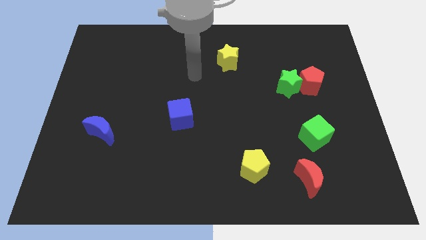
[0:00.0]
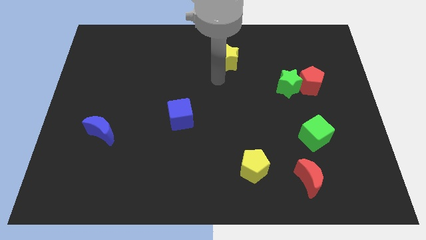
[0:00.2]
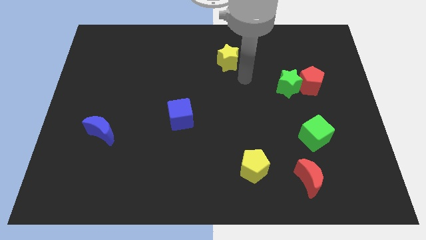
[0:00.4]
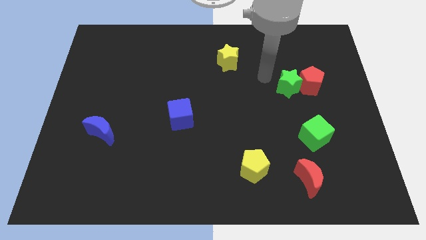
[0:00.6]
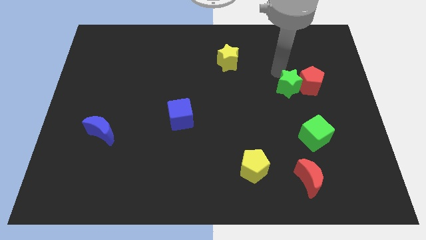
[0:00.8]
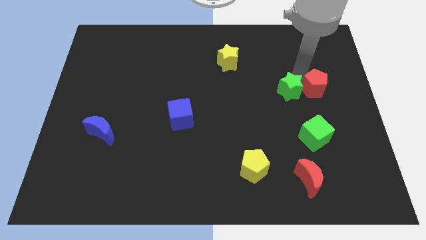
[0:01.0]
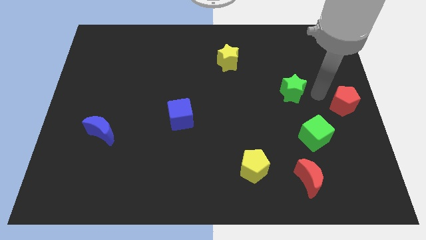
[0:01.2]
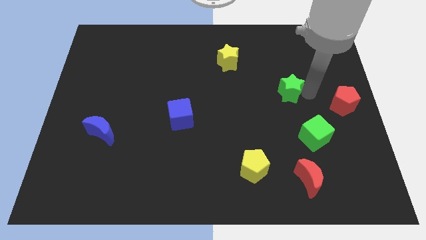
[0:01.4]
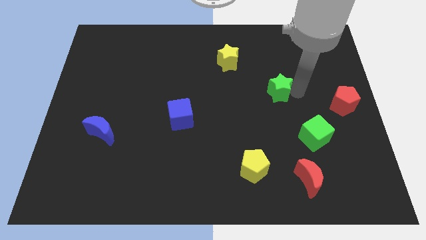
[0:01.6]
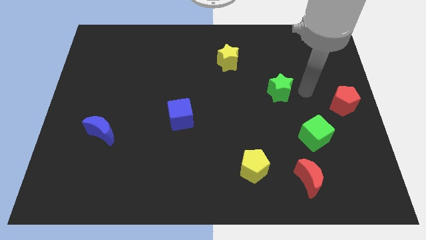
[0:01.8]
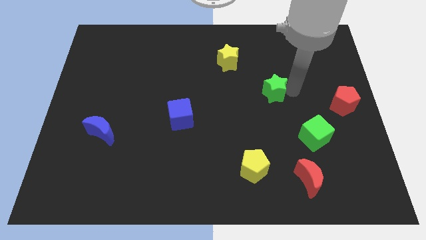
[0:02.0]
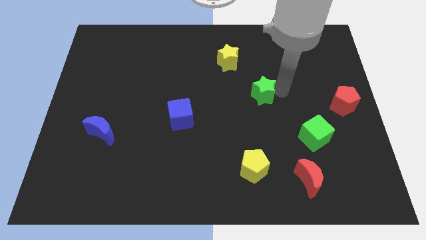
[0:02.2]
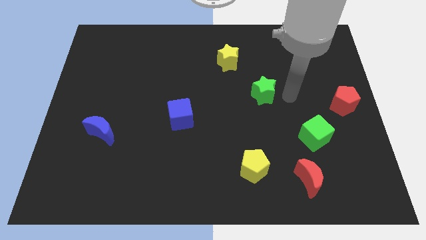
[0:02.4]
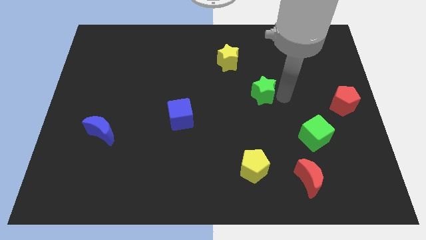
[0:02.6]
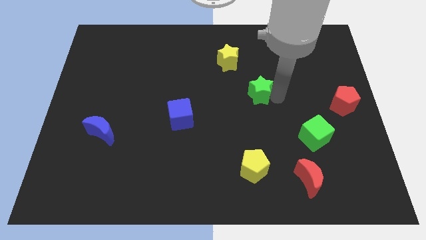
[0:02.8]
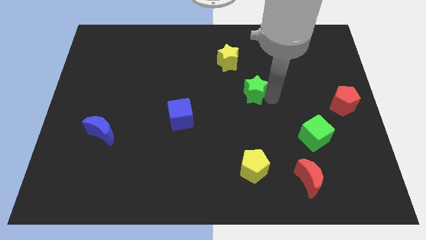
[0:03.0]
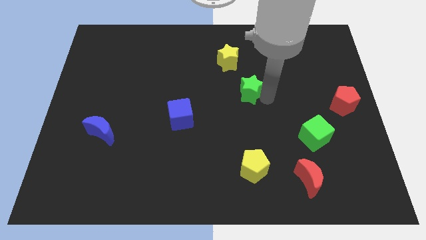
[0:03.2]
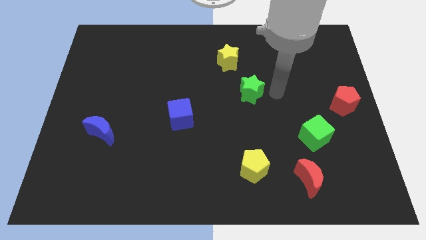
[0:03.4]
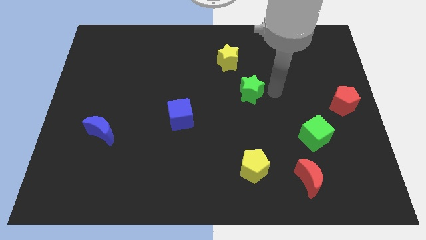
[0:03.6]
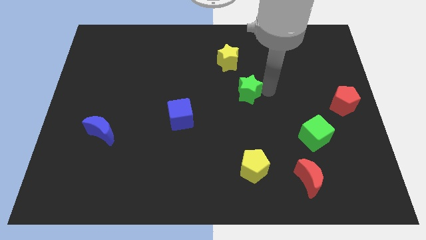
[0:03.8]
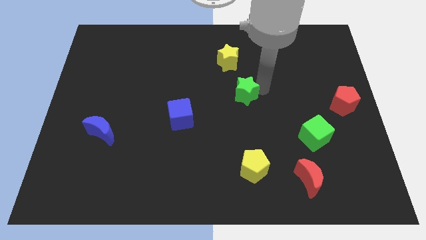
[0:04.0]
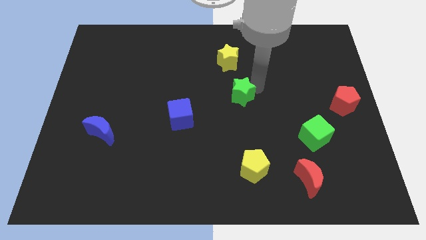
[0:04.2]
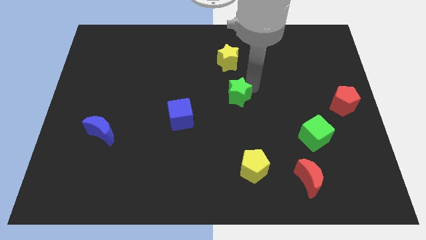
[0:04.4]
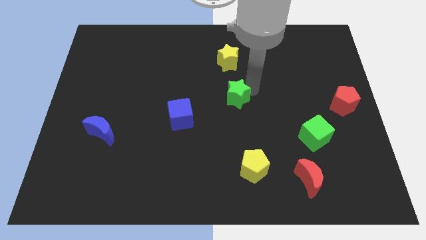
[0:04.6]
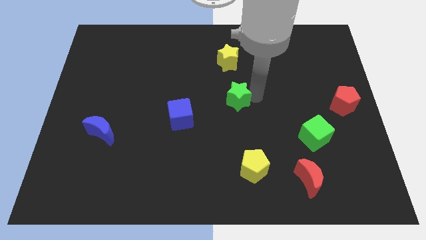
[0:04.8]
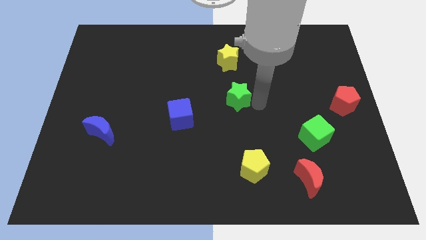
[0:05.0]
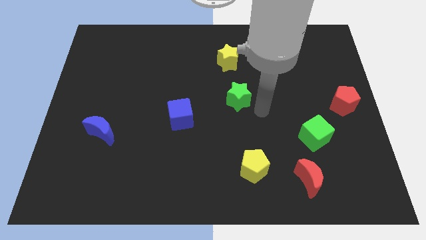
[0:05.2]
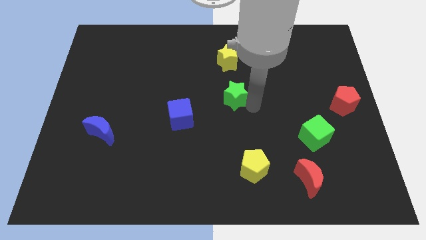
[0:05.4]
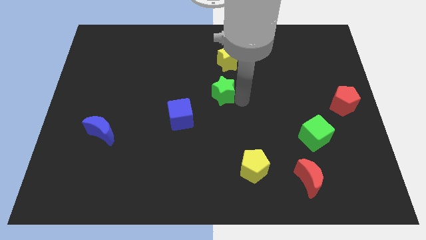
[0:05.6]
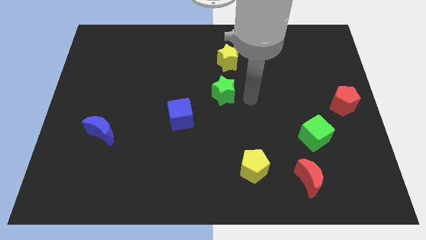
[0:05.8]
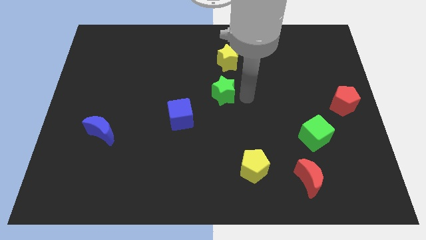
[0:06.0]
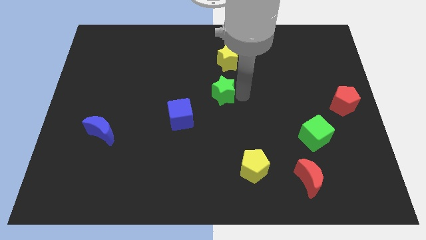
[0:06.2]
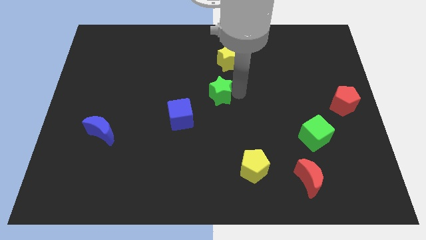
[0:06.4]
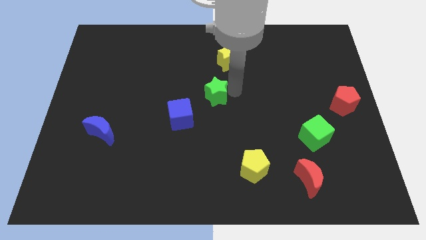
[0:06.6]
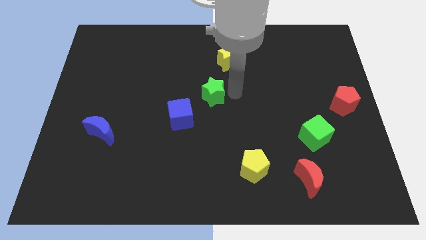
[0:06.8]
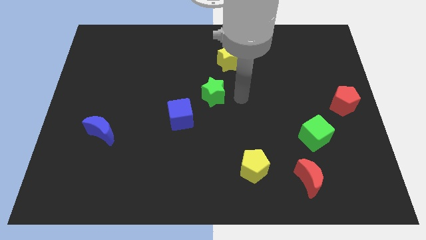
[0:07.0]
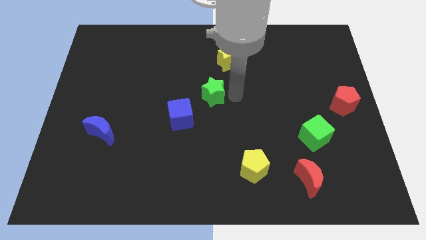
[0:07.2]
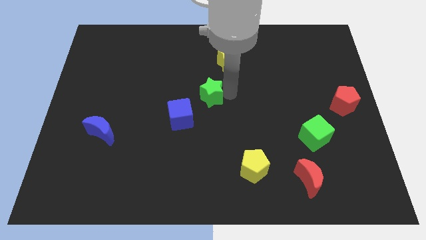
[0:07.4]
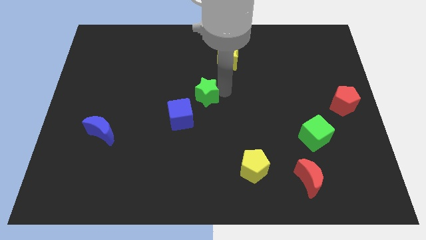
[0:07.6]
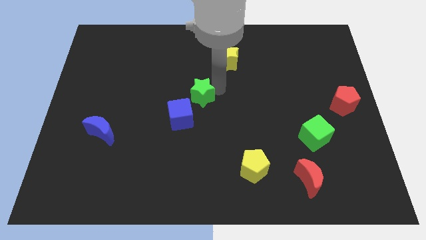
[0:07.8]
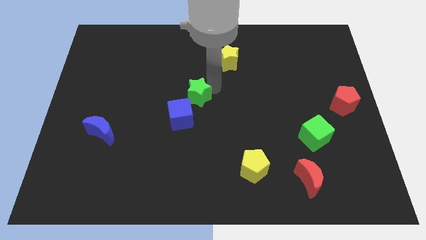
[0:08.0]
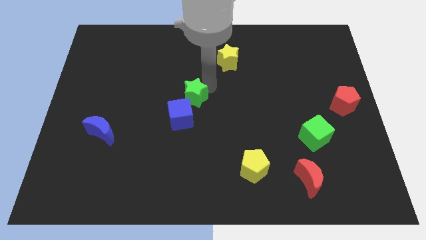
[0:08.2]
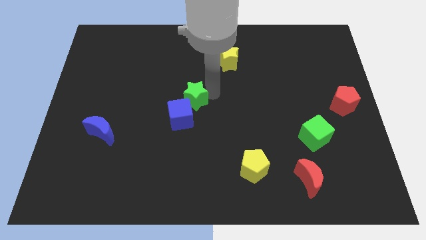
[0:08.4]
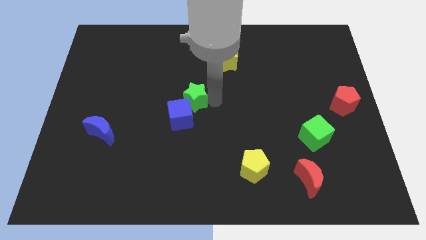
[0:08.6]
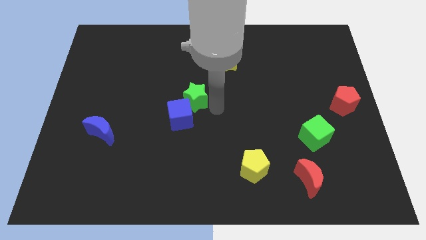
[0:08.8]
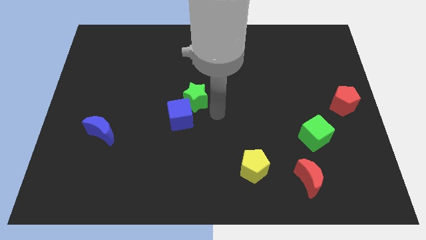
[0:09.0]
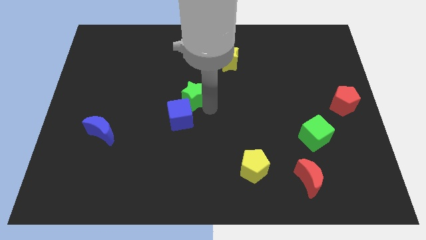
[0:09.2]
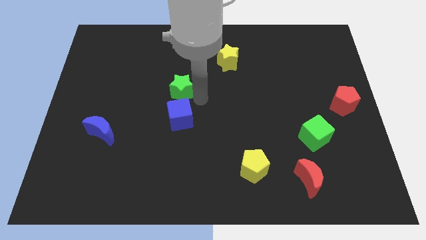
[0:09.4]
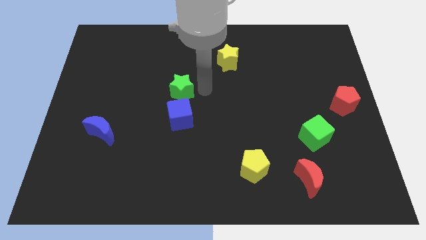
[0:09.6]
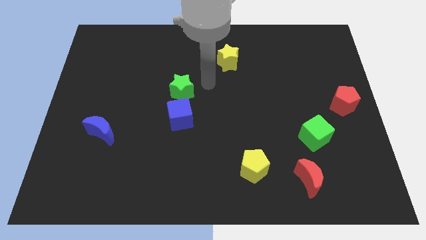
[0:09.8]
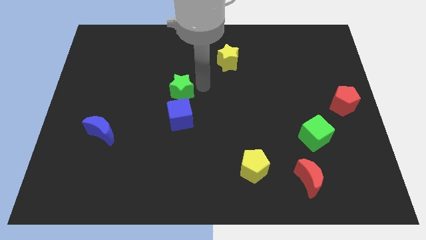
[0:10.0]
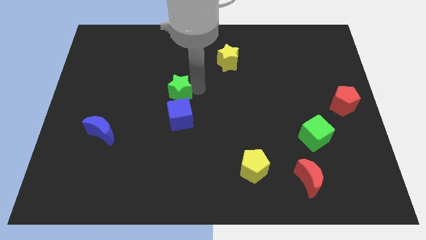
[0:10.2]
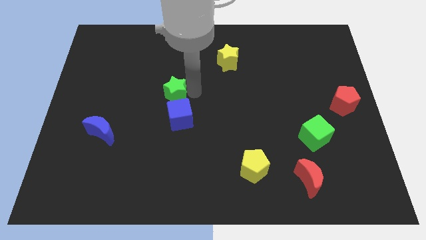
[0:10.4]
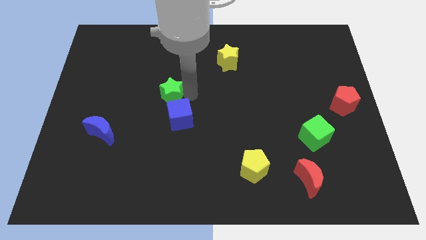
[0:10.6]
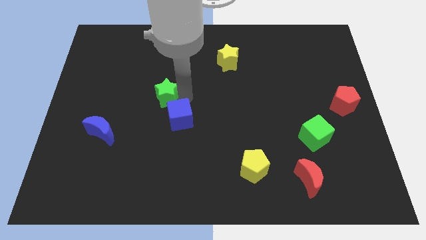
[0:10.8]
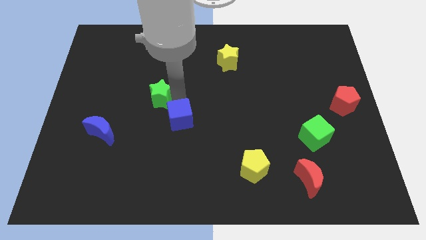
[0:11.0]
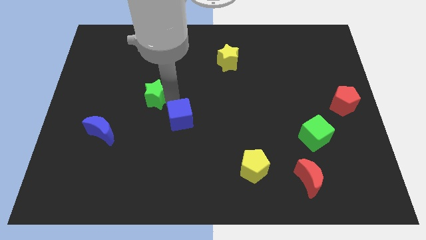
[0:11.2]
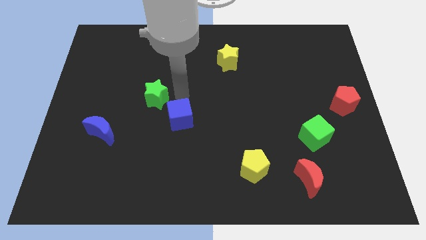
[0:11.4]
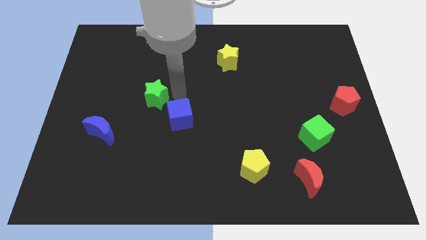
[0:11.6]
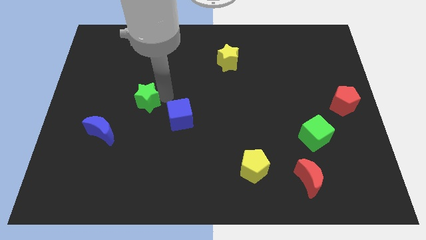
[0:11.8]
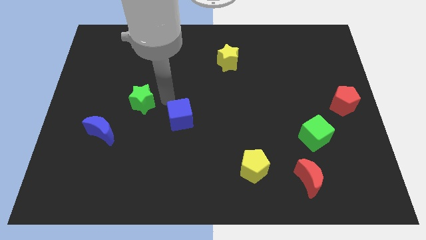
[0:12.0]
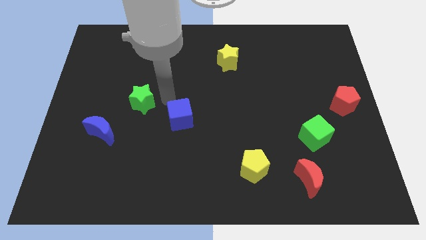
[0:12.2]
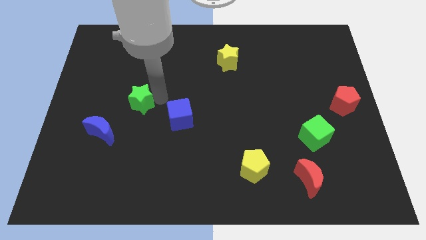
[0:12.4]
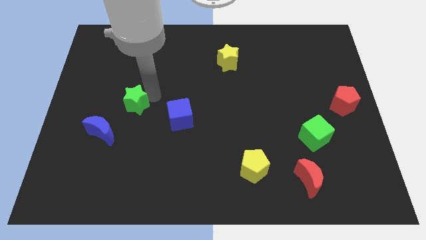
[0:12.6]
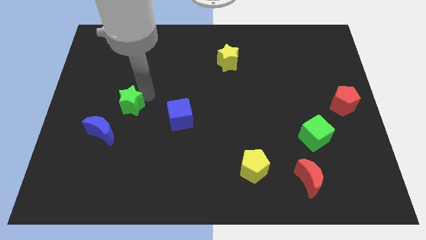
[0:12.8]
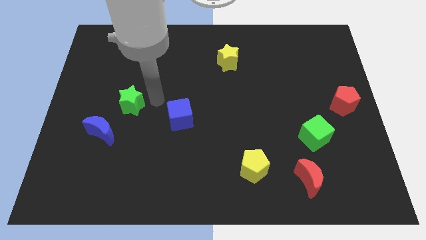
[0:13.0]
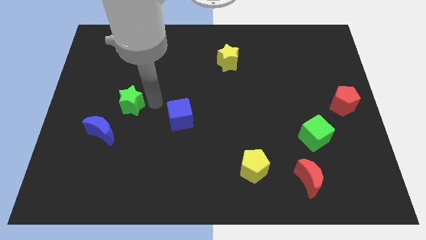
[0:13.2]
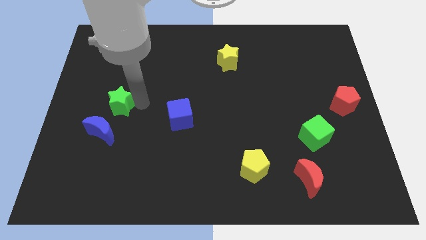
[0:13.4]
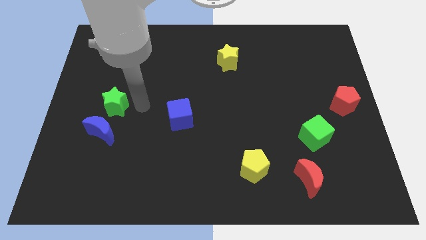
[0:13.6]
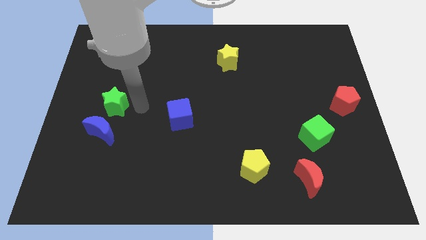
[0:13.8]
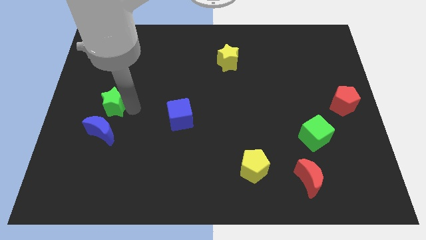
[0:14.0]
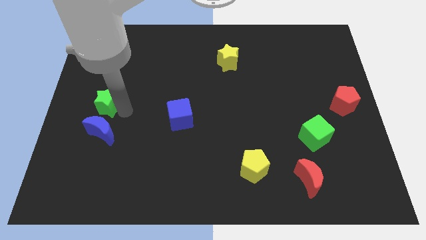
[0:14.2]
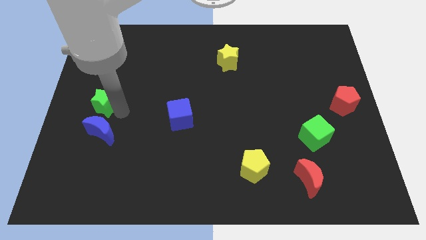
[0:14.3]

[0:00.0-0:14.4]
push the green star to the center left
